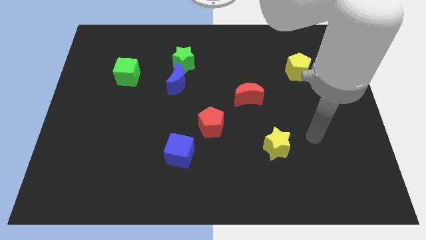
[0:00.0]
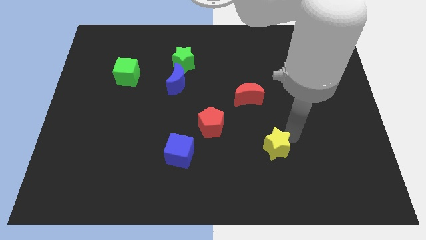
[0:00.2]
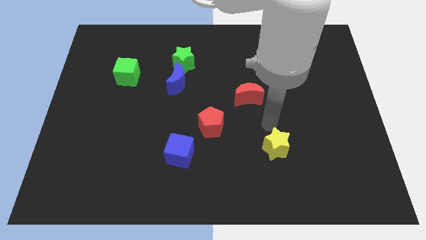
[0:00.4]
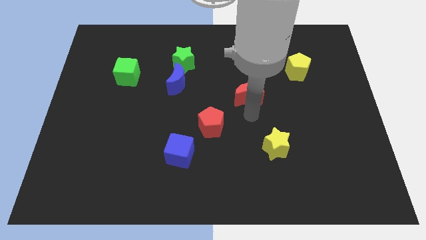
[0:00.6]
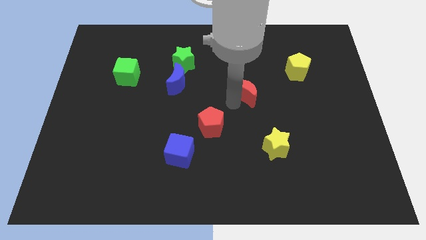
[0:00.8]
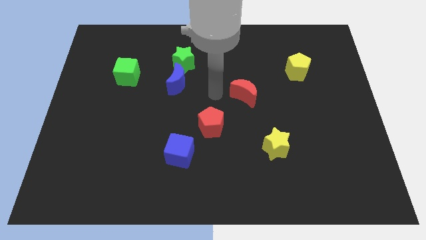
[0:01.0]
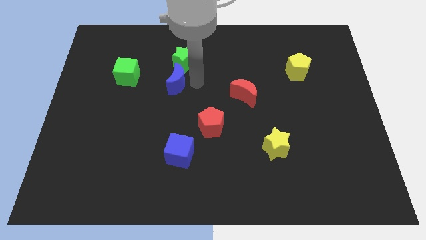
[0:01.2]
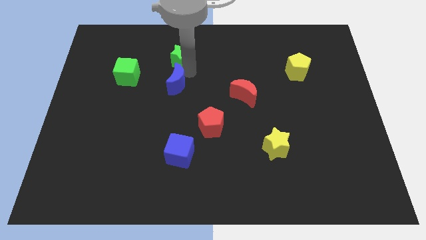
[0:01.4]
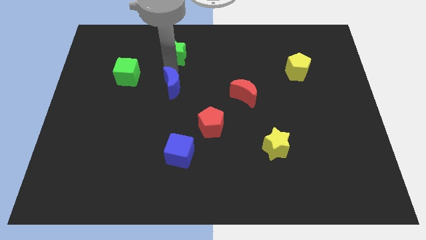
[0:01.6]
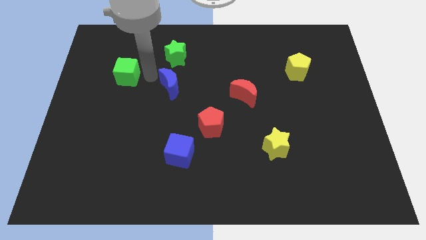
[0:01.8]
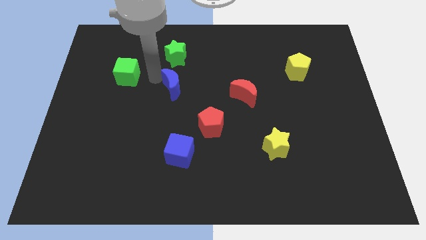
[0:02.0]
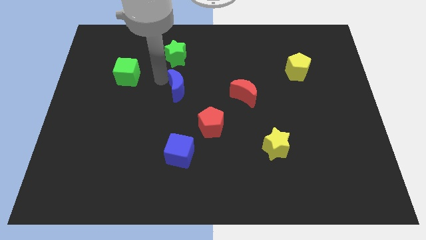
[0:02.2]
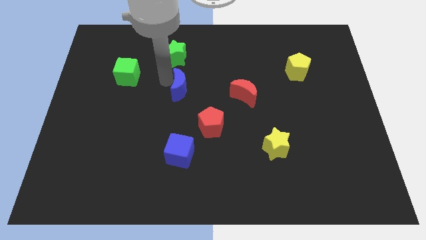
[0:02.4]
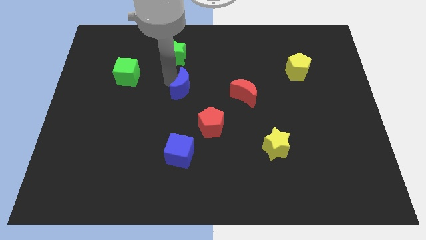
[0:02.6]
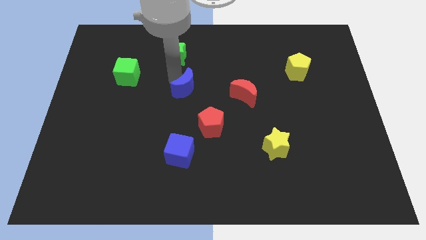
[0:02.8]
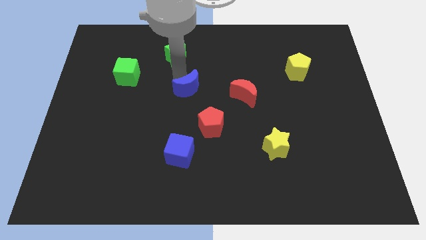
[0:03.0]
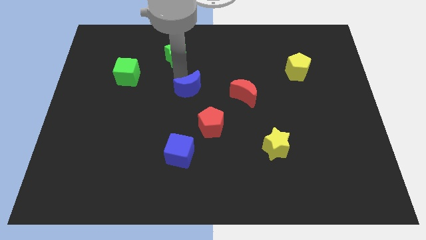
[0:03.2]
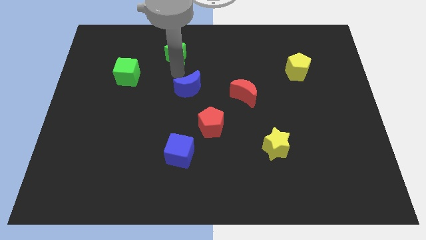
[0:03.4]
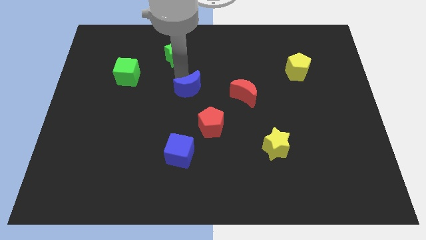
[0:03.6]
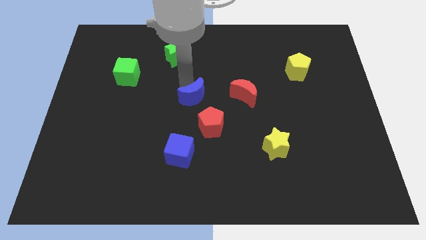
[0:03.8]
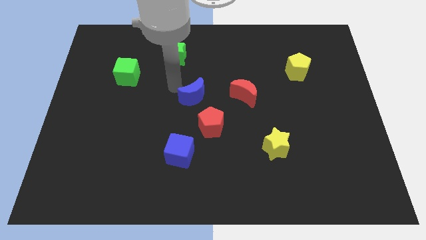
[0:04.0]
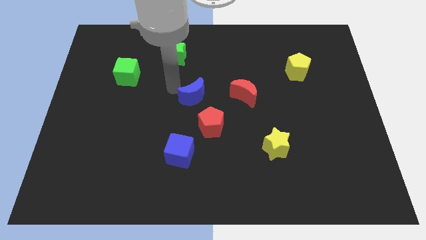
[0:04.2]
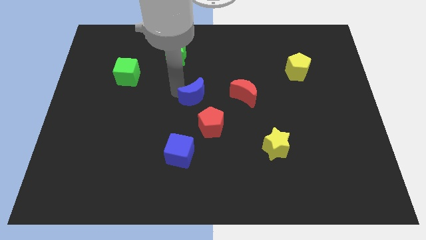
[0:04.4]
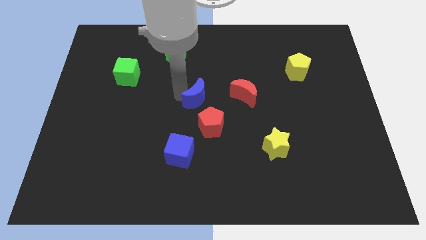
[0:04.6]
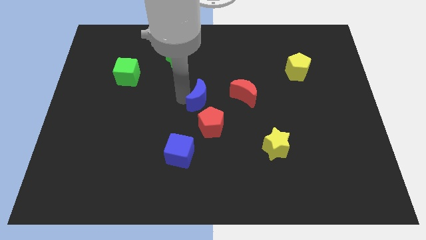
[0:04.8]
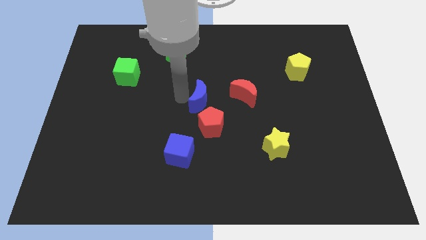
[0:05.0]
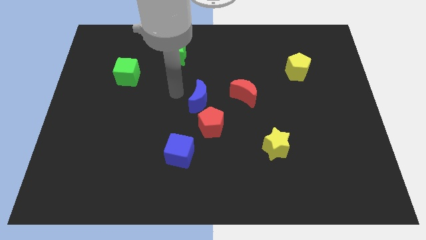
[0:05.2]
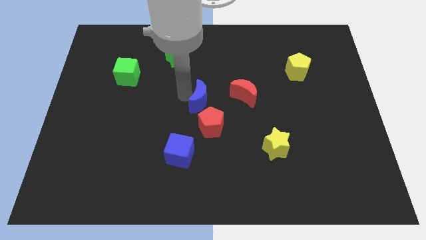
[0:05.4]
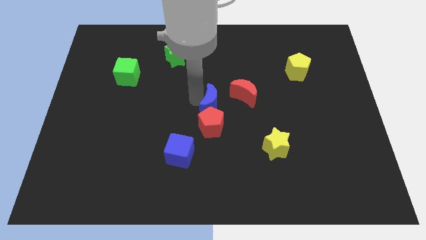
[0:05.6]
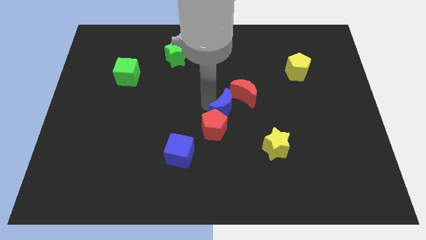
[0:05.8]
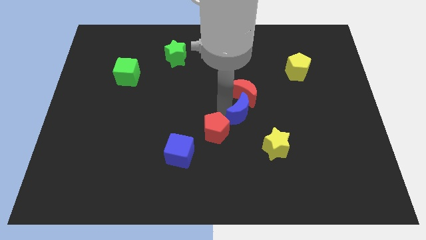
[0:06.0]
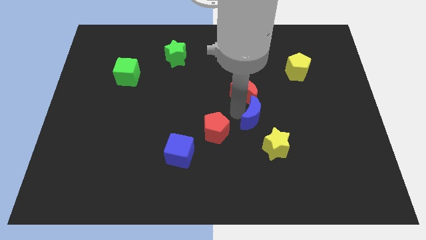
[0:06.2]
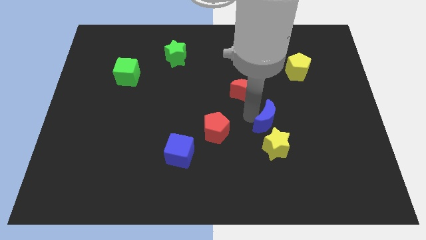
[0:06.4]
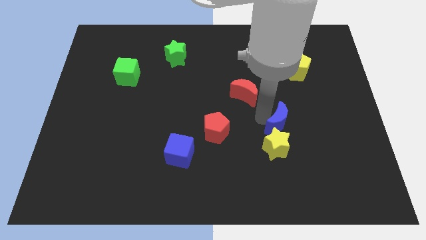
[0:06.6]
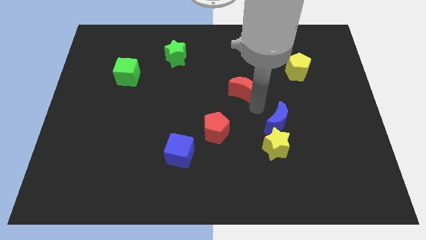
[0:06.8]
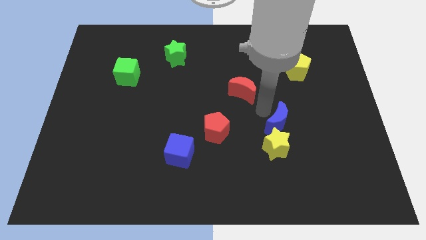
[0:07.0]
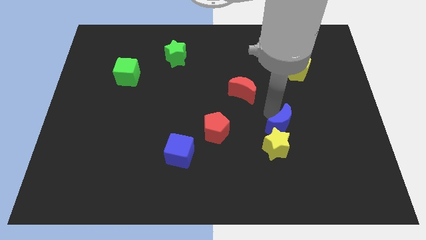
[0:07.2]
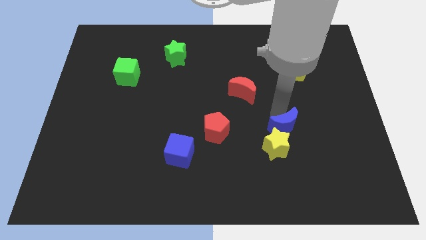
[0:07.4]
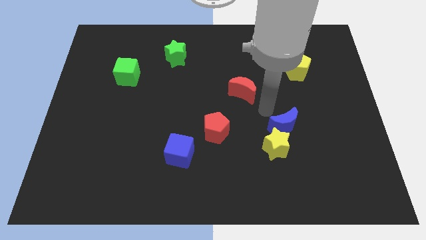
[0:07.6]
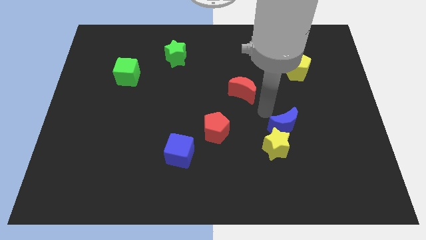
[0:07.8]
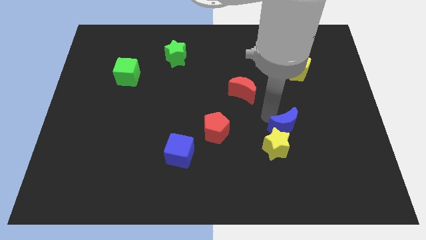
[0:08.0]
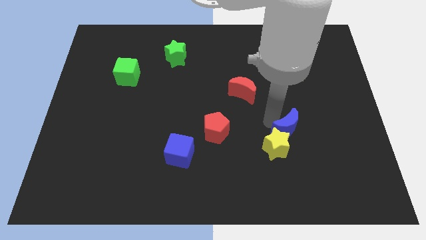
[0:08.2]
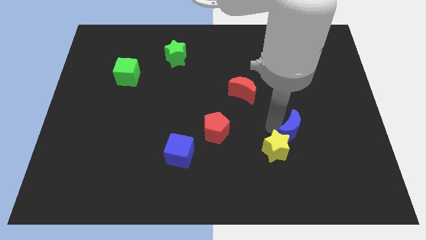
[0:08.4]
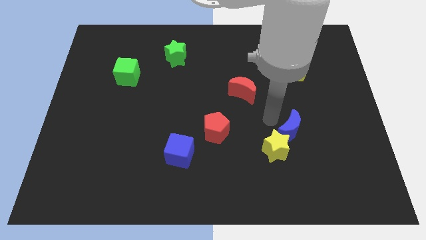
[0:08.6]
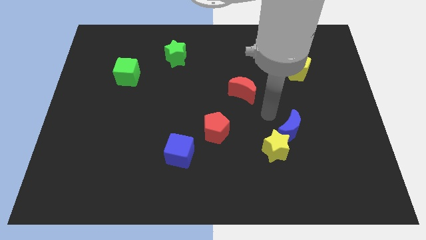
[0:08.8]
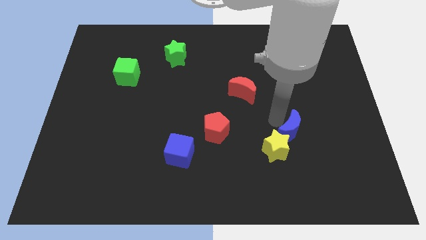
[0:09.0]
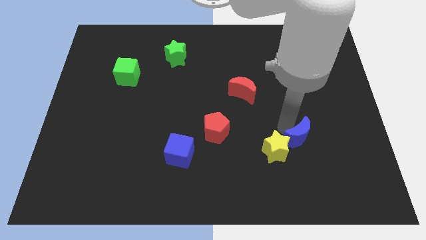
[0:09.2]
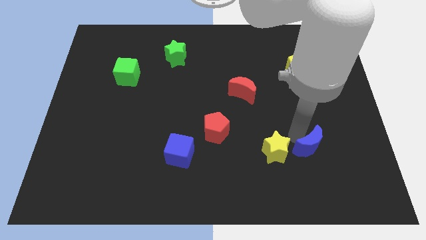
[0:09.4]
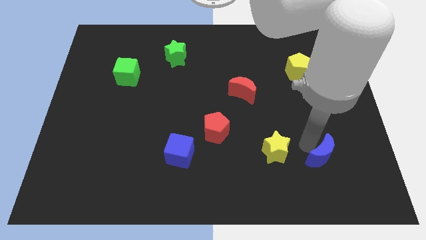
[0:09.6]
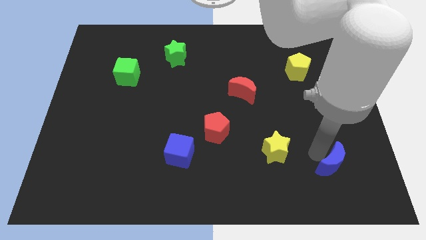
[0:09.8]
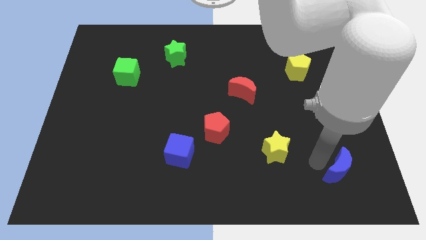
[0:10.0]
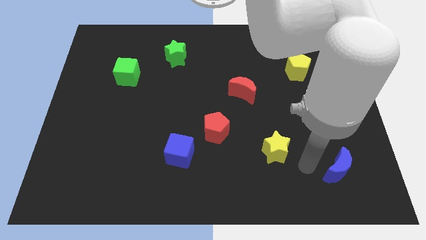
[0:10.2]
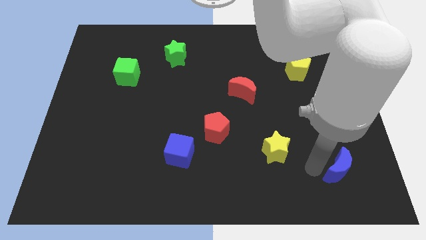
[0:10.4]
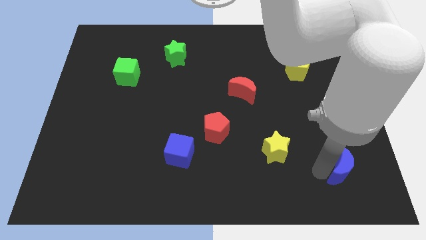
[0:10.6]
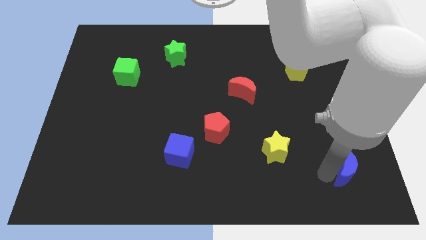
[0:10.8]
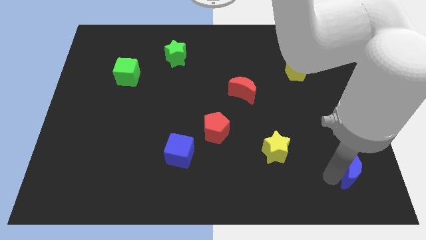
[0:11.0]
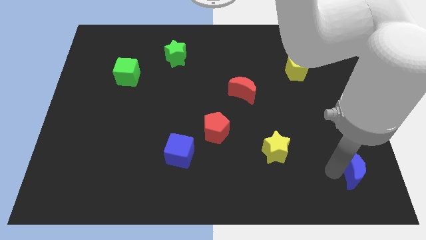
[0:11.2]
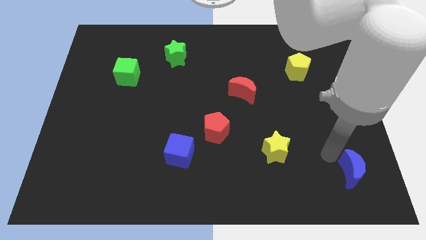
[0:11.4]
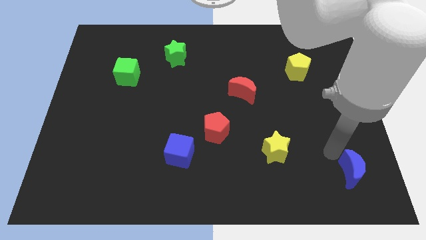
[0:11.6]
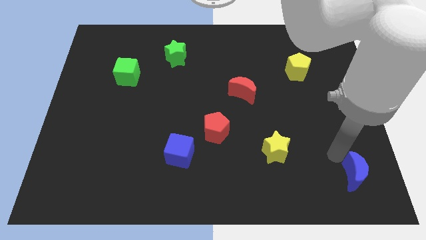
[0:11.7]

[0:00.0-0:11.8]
move the blue moon to the bottom right

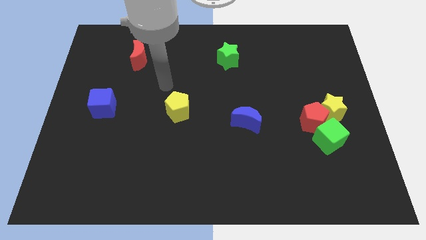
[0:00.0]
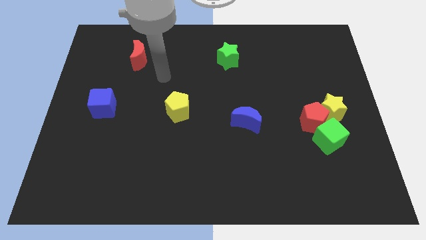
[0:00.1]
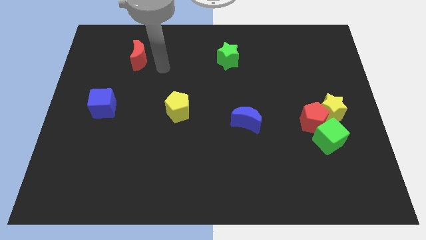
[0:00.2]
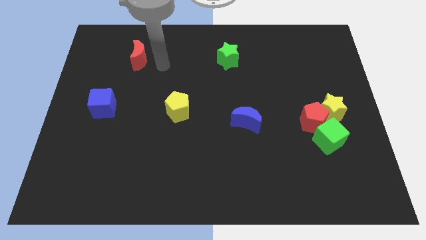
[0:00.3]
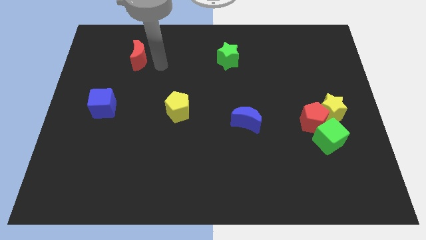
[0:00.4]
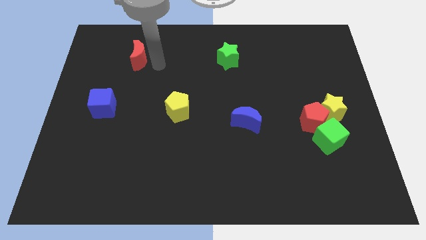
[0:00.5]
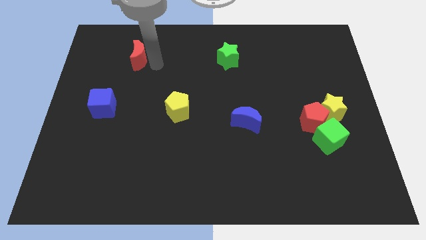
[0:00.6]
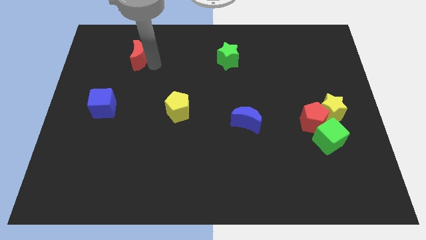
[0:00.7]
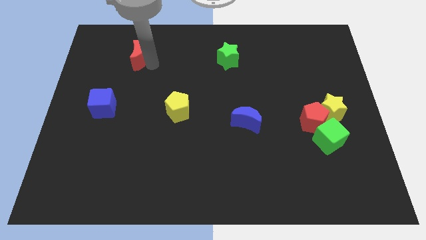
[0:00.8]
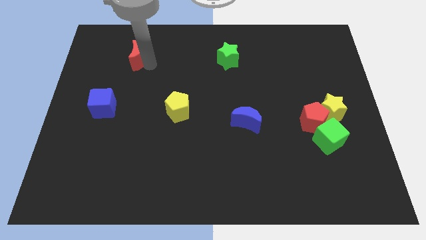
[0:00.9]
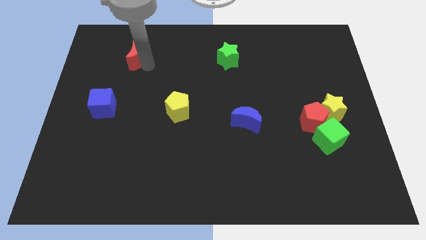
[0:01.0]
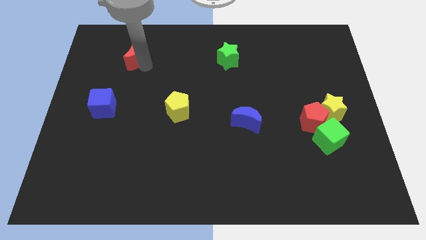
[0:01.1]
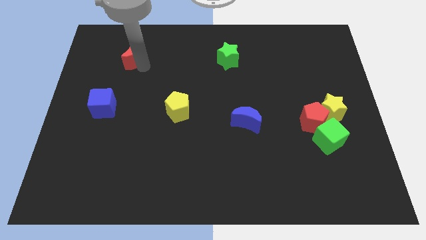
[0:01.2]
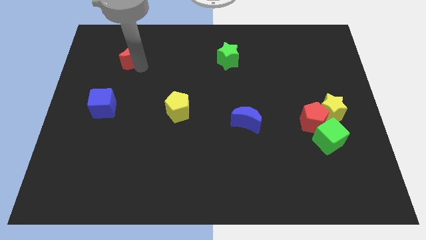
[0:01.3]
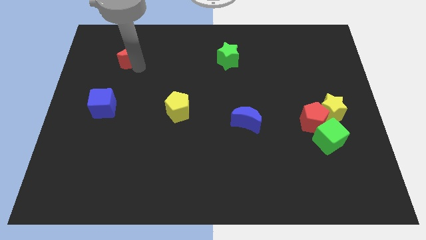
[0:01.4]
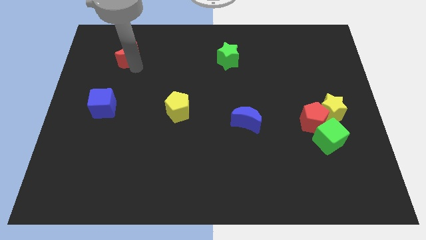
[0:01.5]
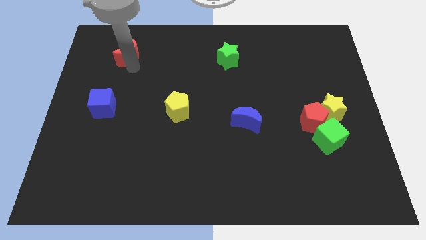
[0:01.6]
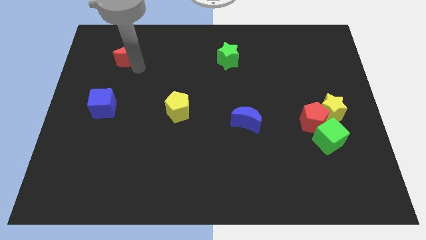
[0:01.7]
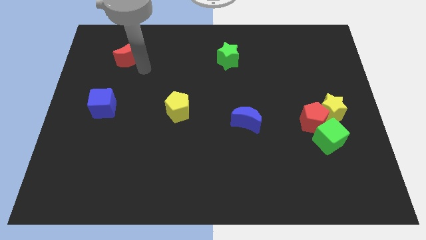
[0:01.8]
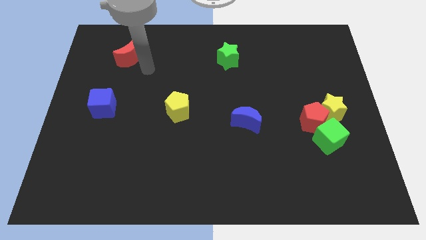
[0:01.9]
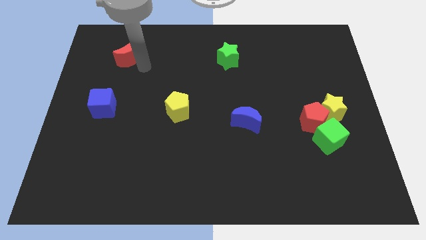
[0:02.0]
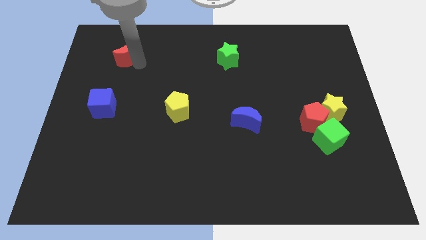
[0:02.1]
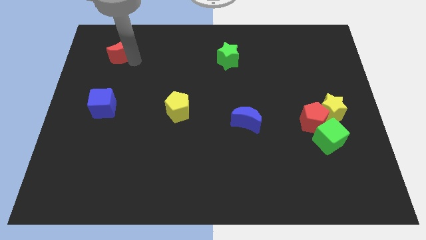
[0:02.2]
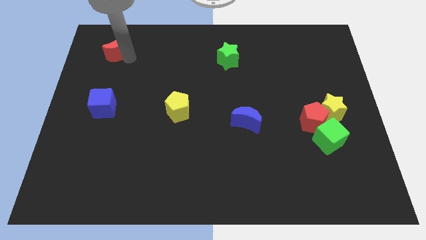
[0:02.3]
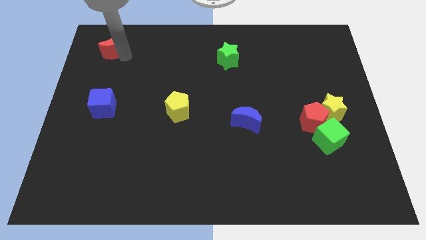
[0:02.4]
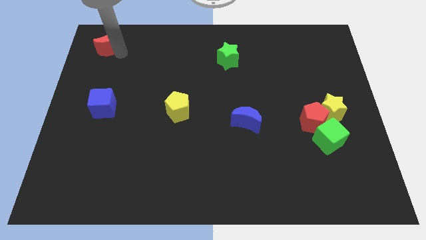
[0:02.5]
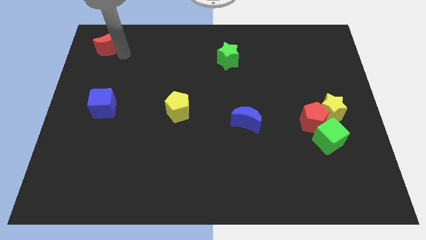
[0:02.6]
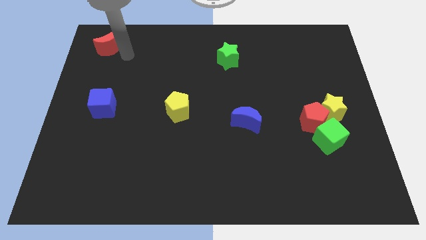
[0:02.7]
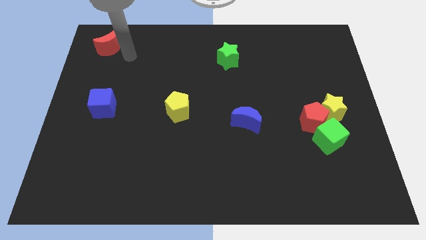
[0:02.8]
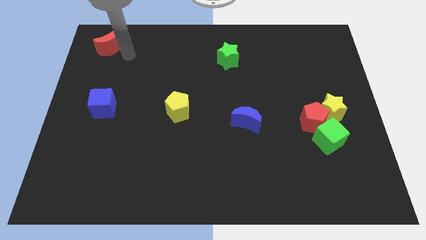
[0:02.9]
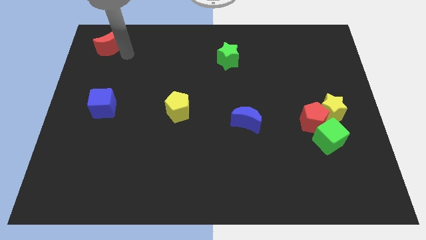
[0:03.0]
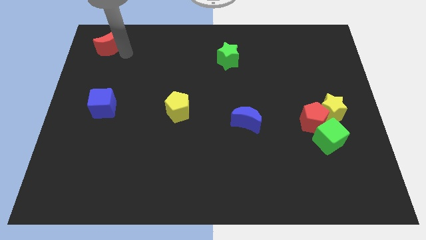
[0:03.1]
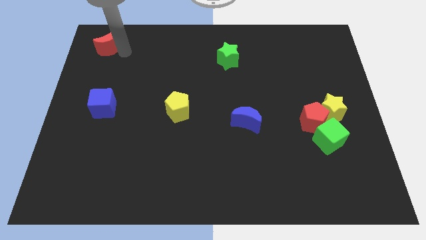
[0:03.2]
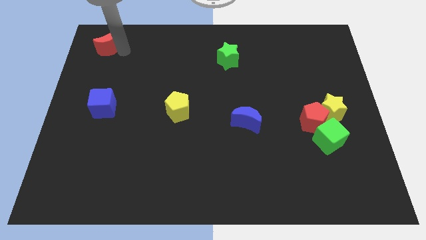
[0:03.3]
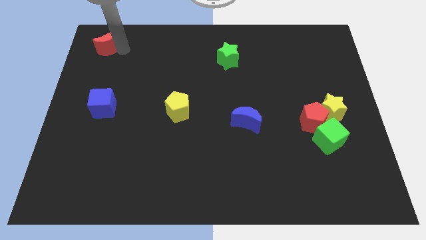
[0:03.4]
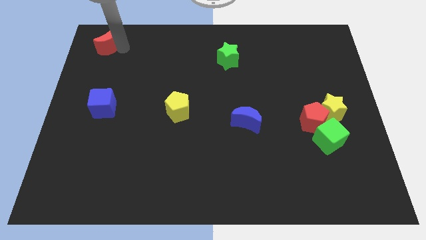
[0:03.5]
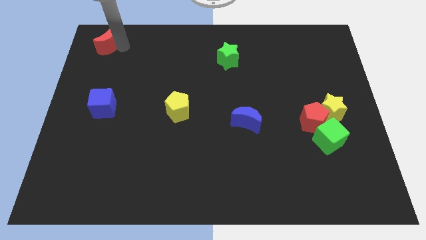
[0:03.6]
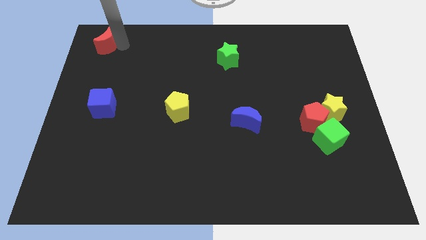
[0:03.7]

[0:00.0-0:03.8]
move the red moon to the upper left corner
